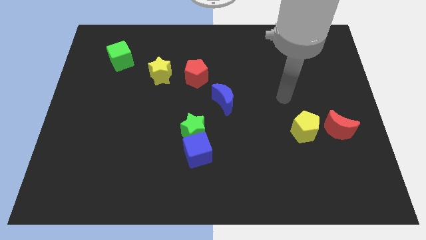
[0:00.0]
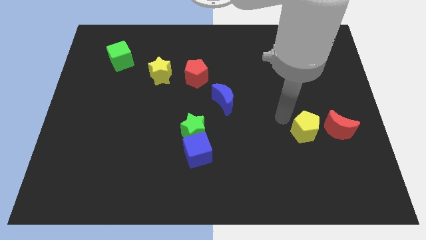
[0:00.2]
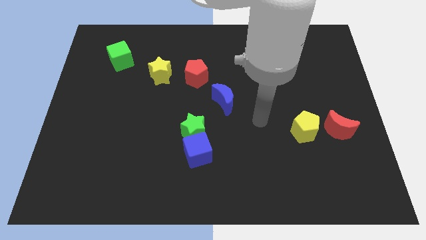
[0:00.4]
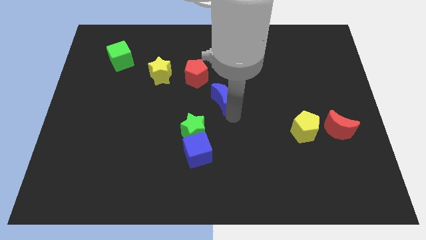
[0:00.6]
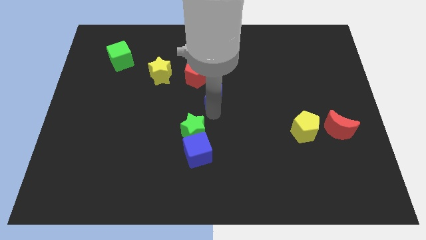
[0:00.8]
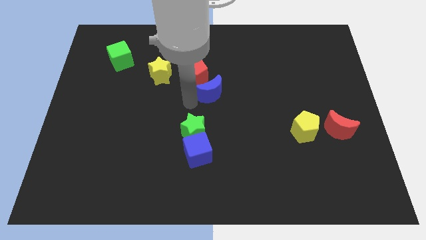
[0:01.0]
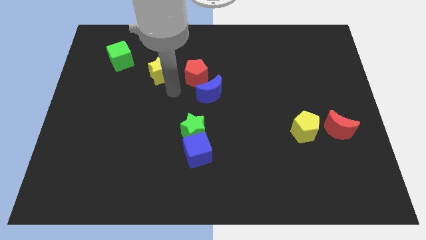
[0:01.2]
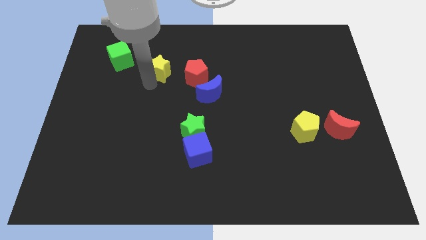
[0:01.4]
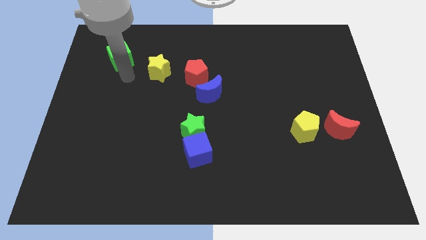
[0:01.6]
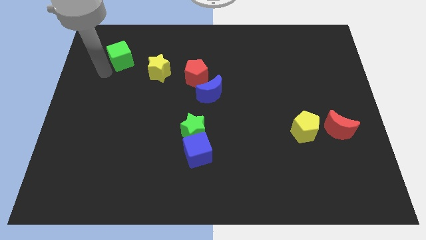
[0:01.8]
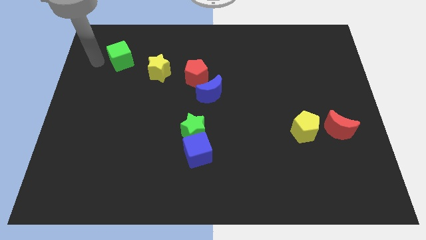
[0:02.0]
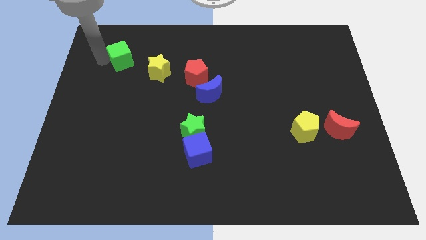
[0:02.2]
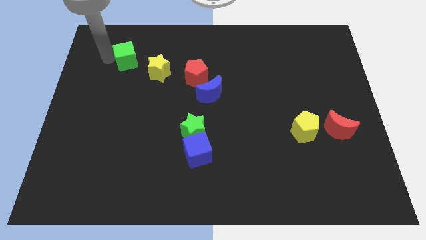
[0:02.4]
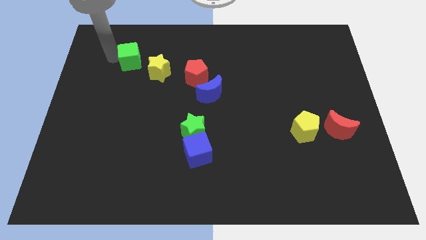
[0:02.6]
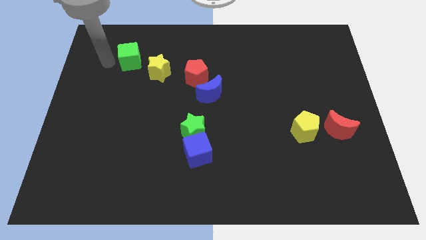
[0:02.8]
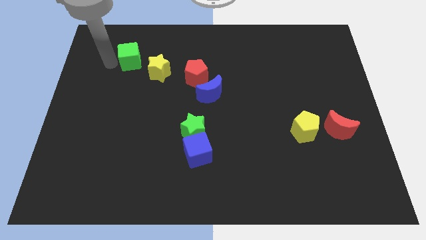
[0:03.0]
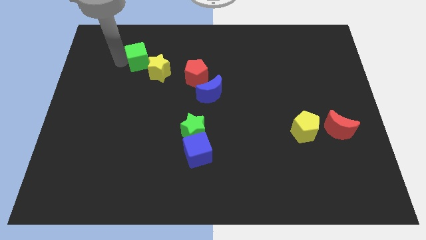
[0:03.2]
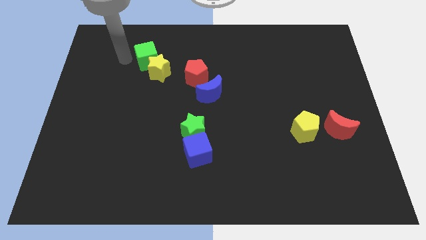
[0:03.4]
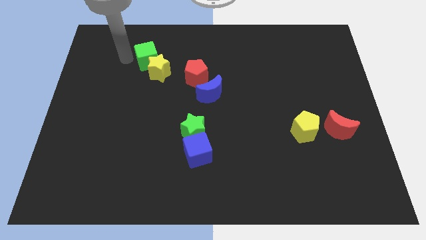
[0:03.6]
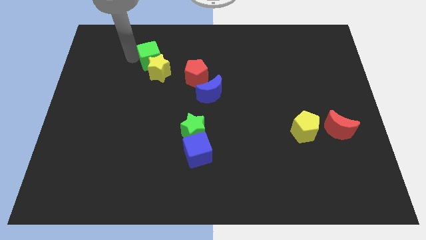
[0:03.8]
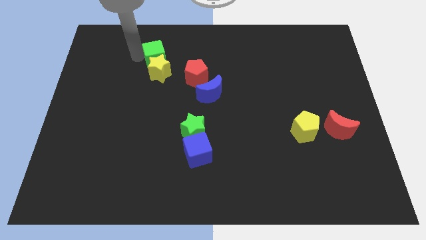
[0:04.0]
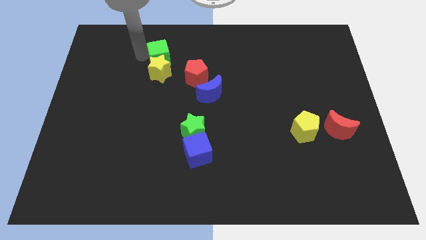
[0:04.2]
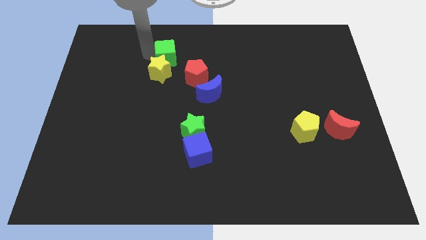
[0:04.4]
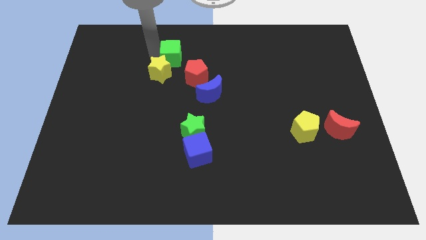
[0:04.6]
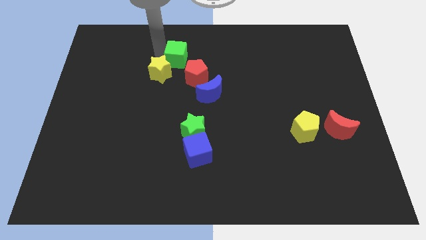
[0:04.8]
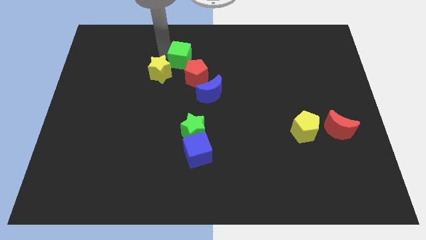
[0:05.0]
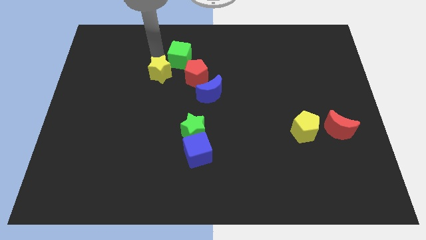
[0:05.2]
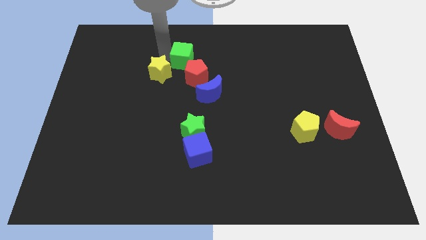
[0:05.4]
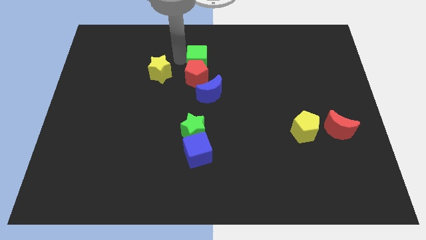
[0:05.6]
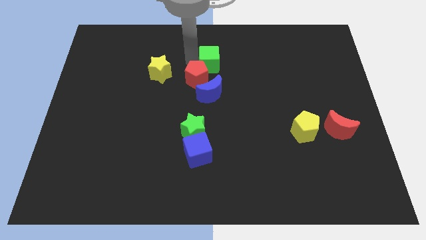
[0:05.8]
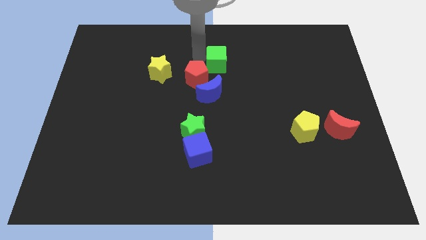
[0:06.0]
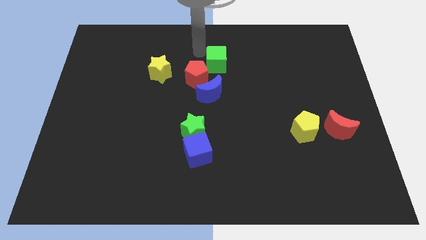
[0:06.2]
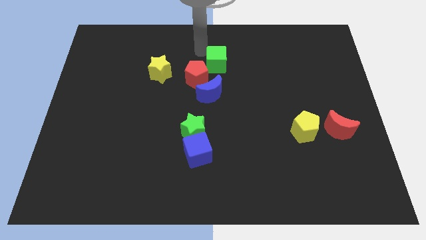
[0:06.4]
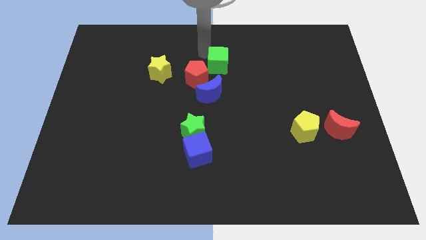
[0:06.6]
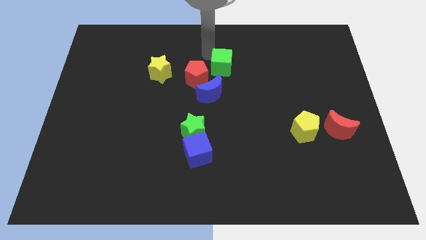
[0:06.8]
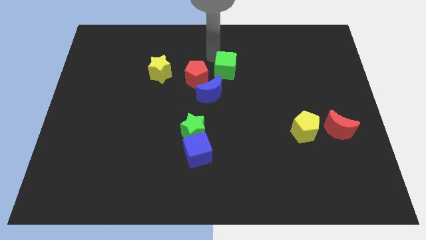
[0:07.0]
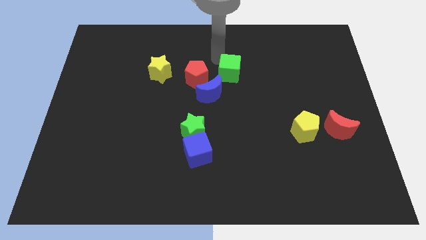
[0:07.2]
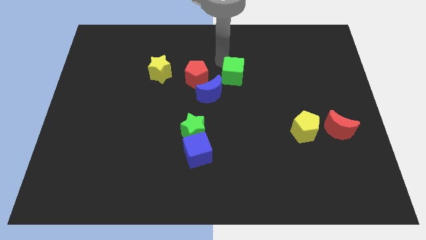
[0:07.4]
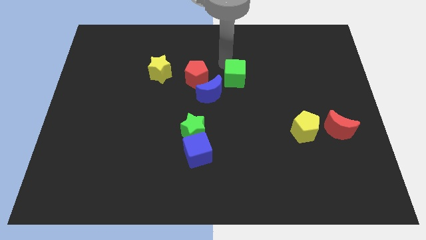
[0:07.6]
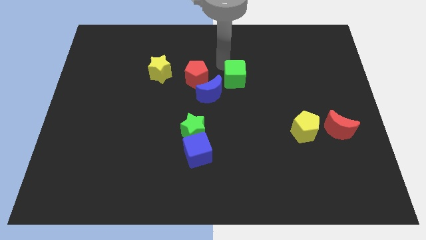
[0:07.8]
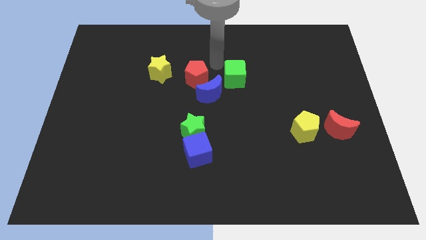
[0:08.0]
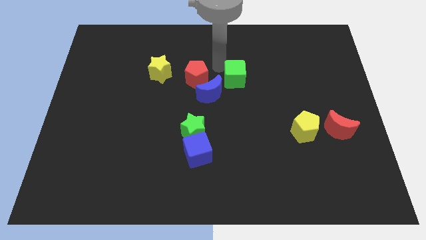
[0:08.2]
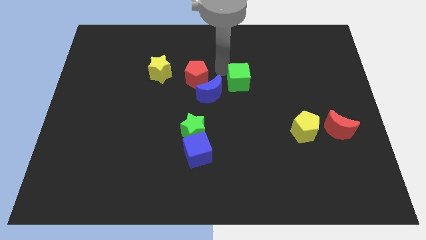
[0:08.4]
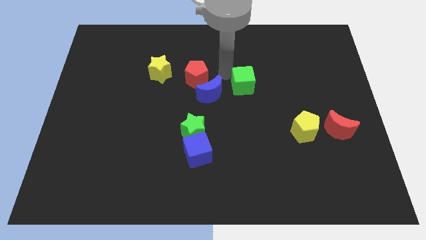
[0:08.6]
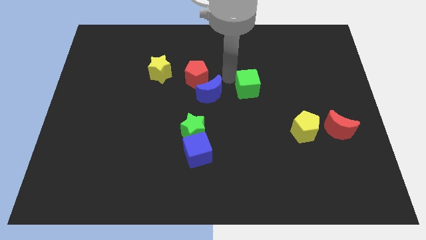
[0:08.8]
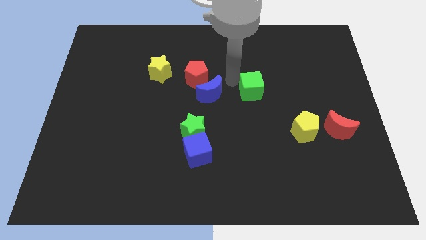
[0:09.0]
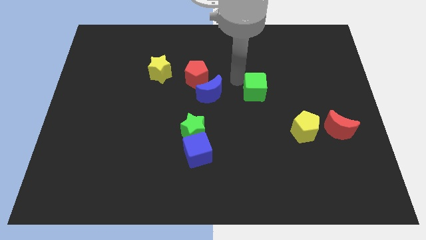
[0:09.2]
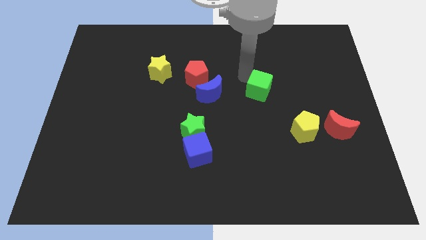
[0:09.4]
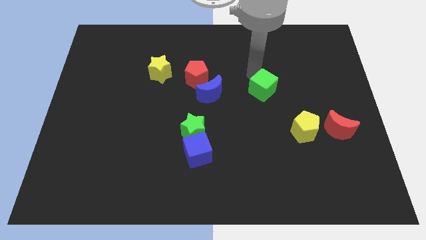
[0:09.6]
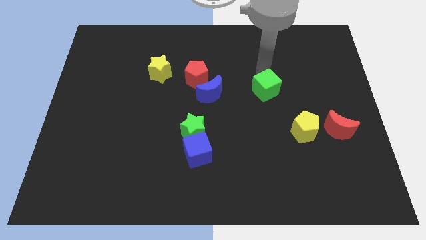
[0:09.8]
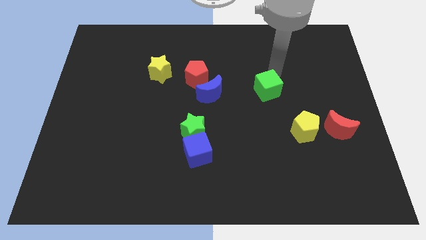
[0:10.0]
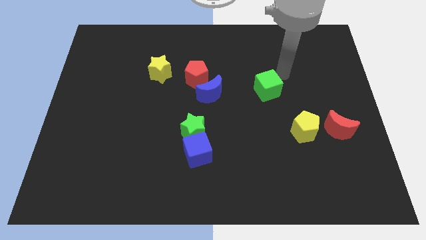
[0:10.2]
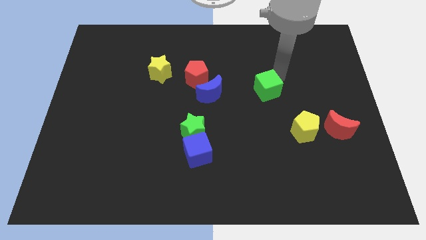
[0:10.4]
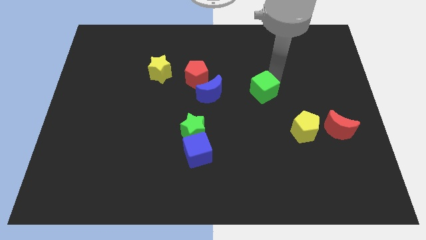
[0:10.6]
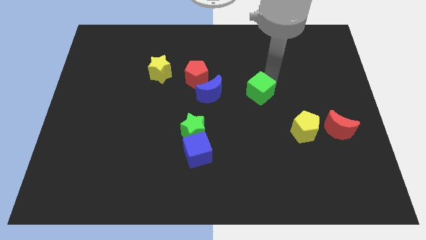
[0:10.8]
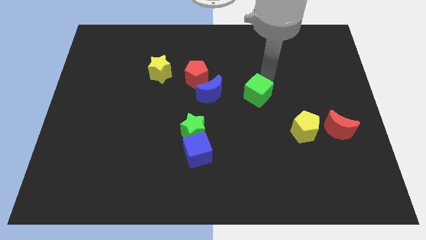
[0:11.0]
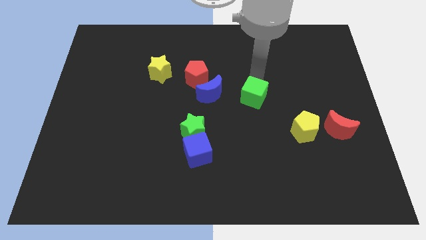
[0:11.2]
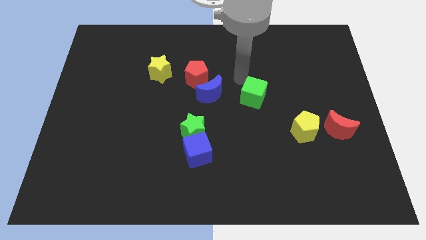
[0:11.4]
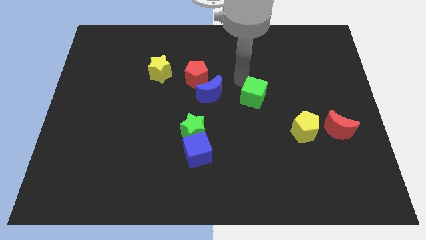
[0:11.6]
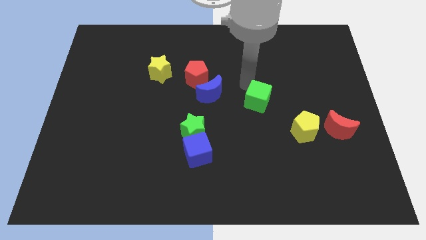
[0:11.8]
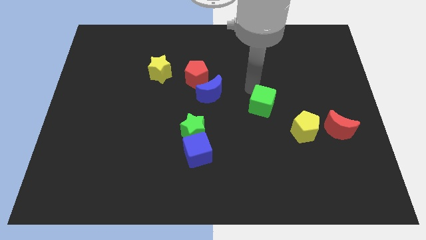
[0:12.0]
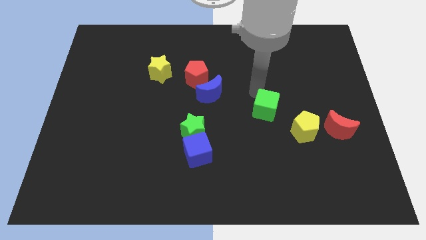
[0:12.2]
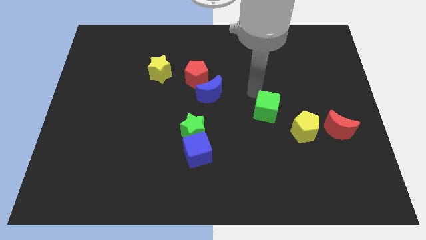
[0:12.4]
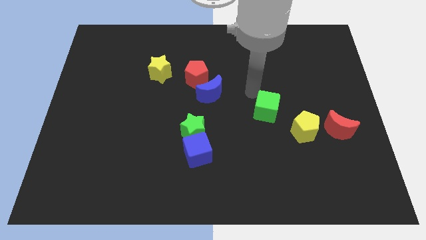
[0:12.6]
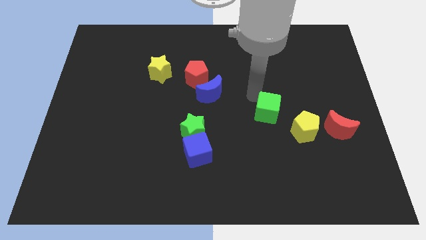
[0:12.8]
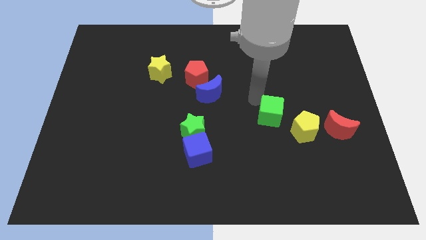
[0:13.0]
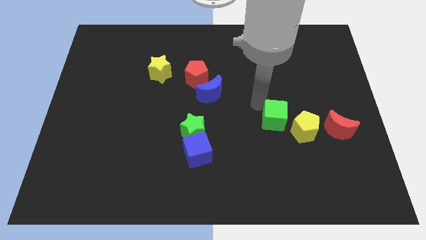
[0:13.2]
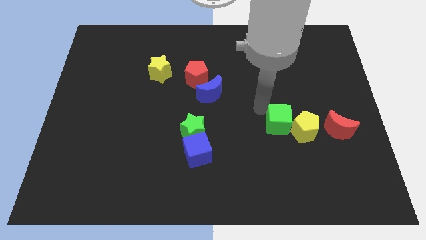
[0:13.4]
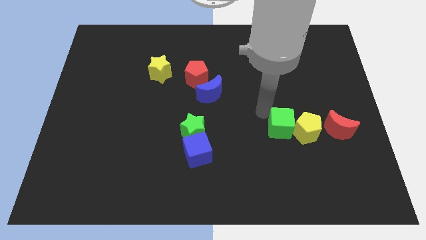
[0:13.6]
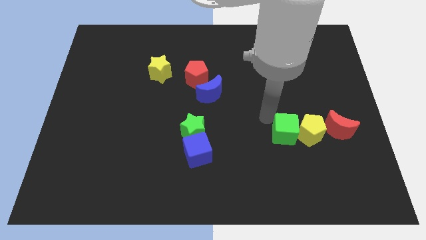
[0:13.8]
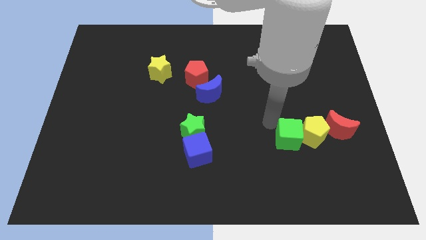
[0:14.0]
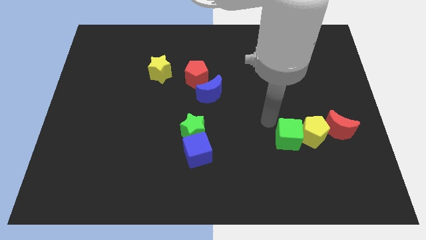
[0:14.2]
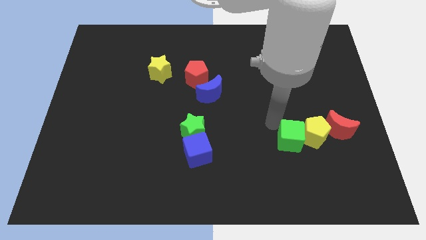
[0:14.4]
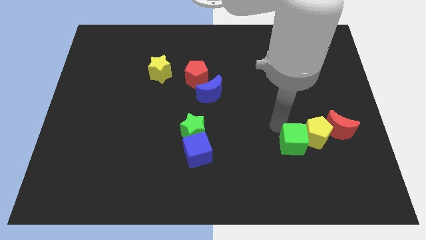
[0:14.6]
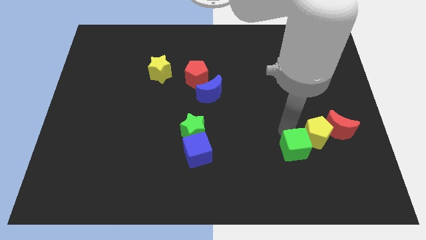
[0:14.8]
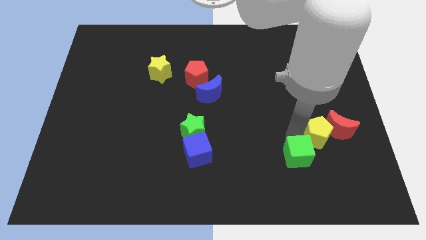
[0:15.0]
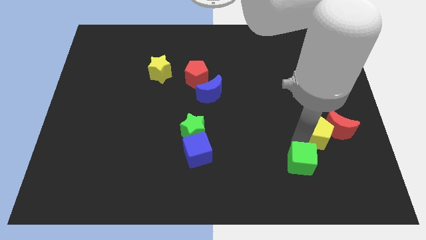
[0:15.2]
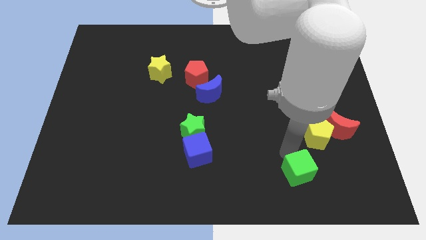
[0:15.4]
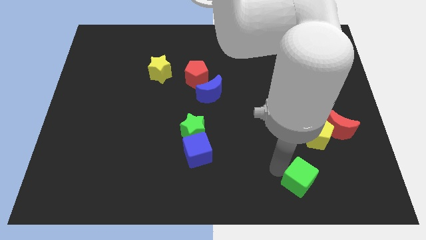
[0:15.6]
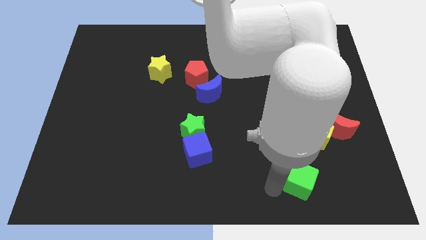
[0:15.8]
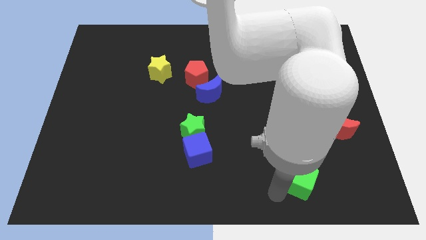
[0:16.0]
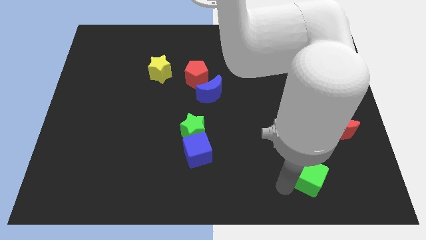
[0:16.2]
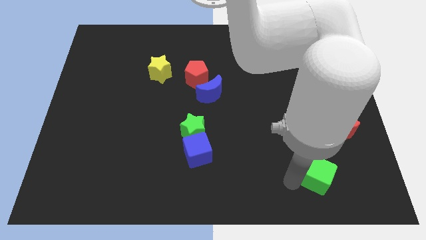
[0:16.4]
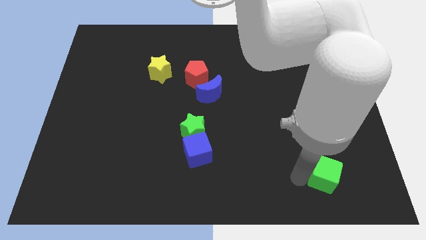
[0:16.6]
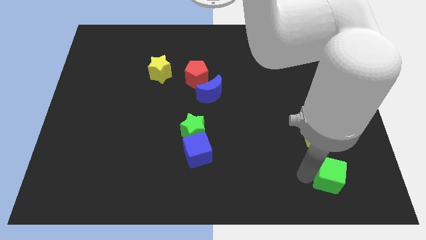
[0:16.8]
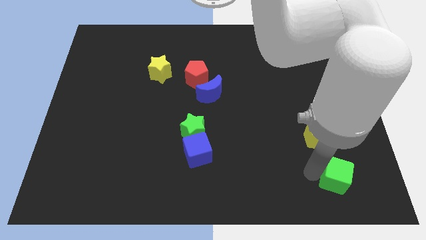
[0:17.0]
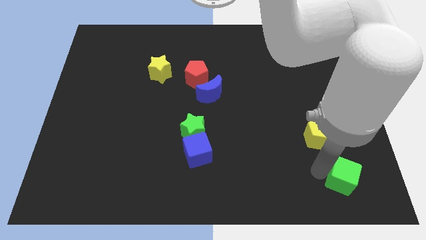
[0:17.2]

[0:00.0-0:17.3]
move the green cube to the bottom right side of the yellow pentagon
